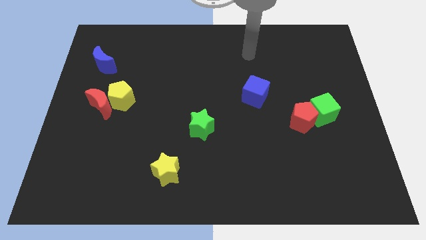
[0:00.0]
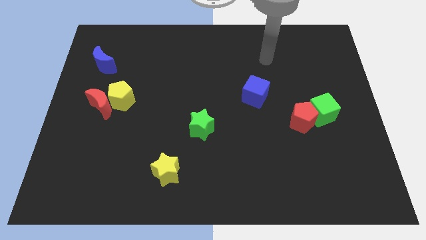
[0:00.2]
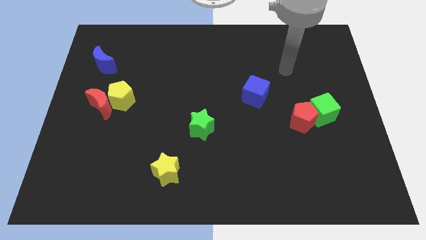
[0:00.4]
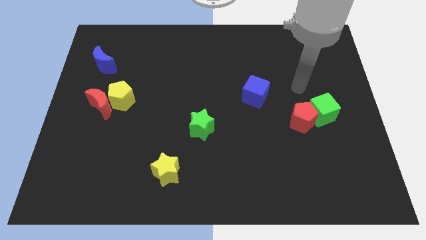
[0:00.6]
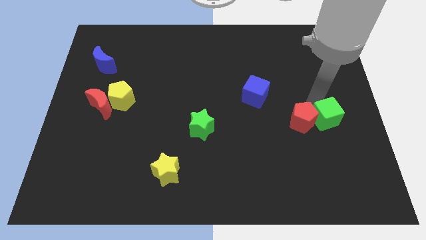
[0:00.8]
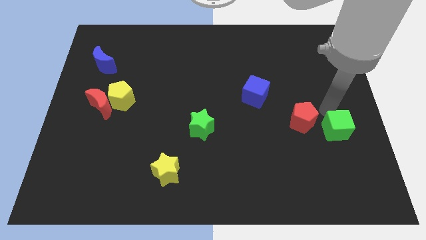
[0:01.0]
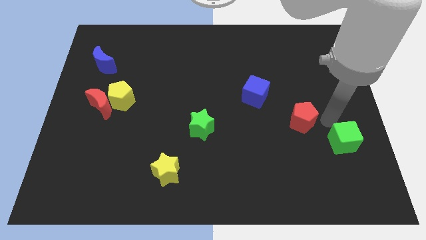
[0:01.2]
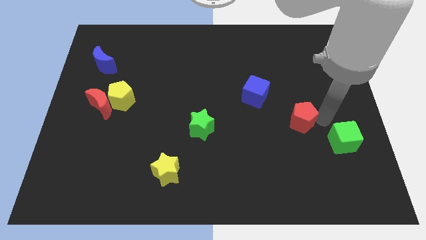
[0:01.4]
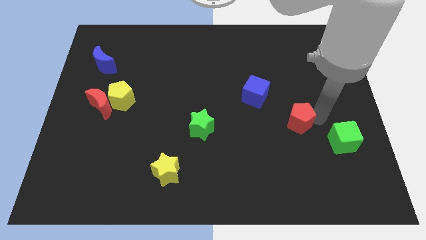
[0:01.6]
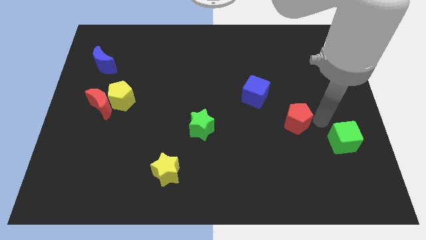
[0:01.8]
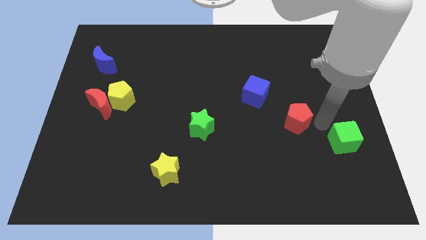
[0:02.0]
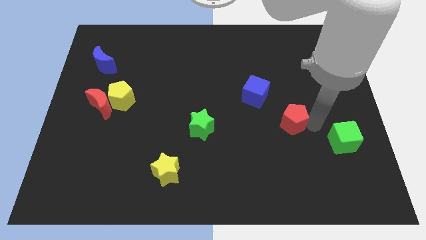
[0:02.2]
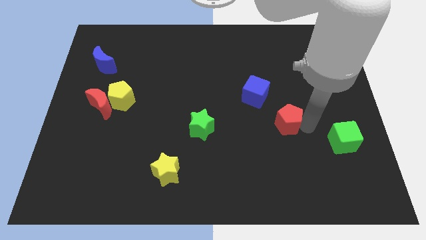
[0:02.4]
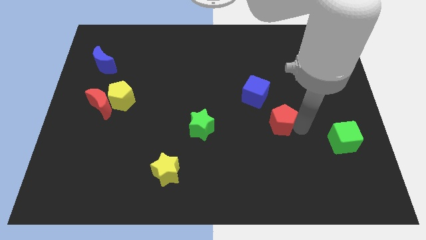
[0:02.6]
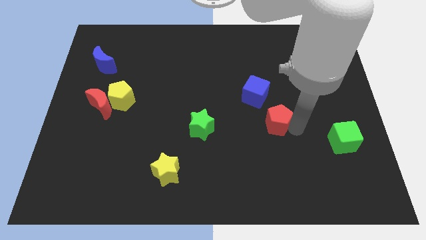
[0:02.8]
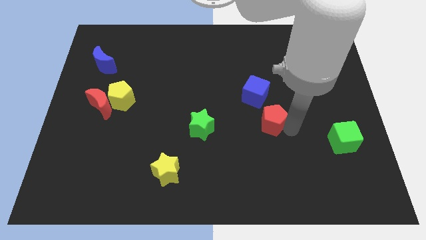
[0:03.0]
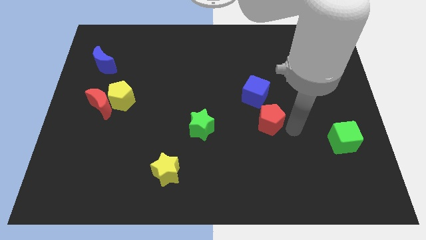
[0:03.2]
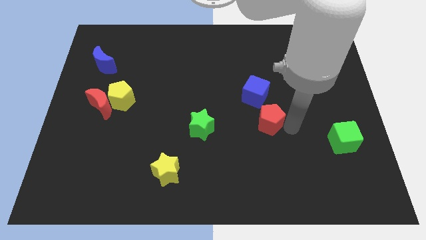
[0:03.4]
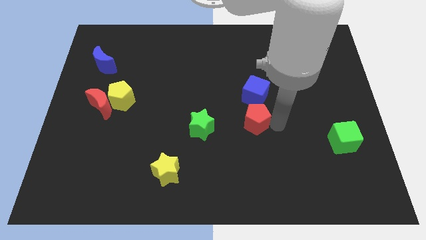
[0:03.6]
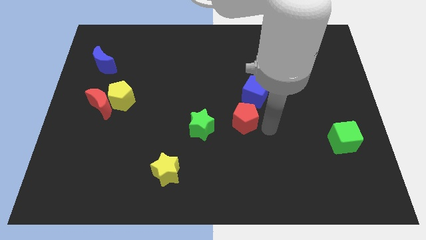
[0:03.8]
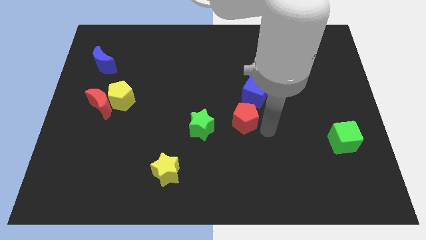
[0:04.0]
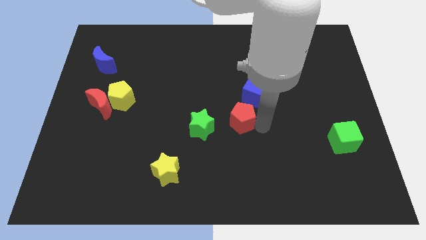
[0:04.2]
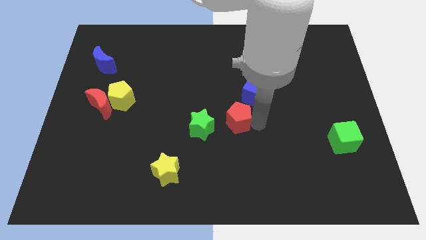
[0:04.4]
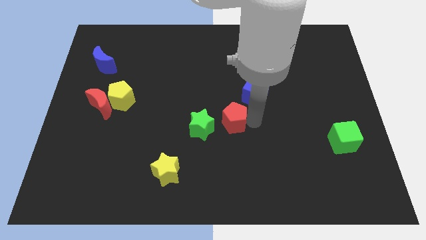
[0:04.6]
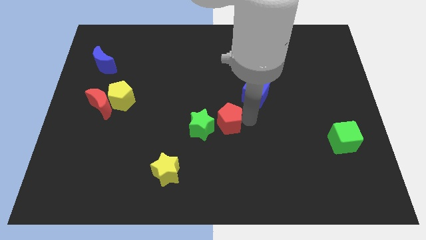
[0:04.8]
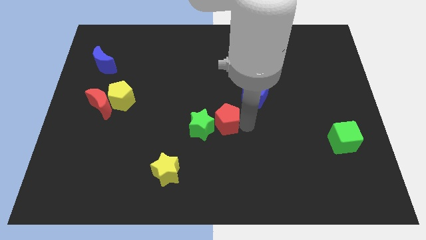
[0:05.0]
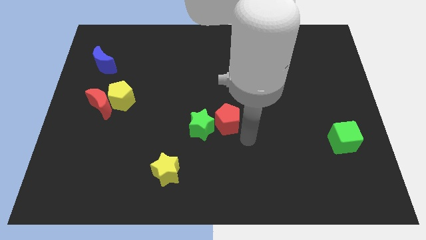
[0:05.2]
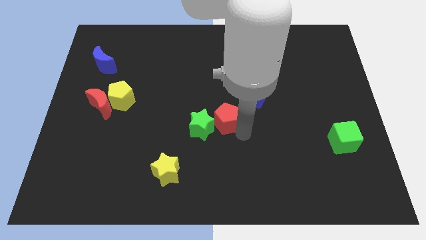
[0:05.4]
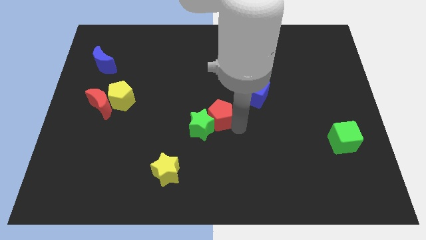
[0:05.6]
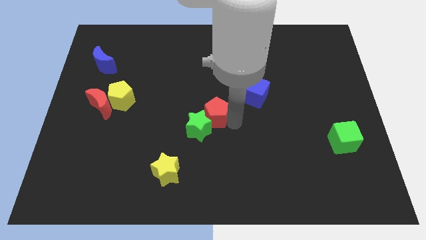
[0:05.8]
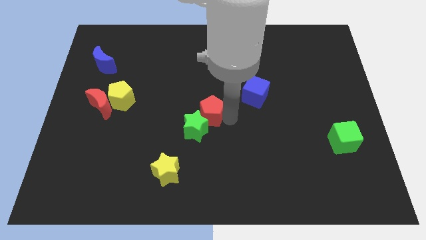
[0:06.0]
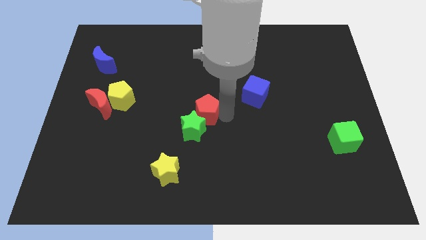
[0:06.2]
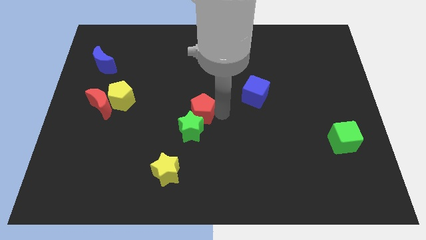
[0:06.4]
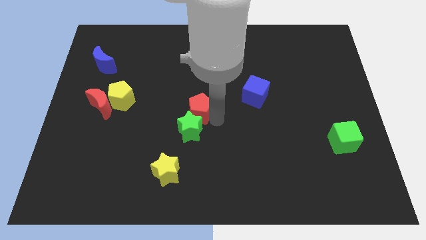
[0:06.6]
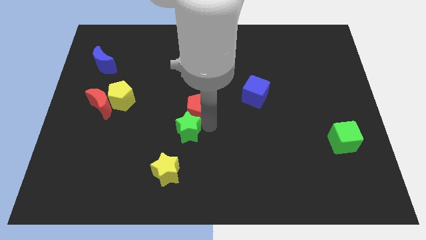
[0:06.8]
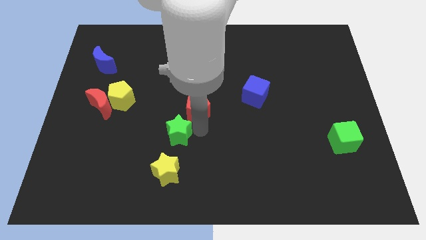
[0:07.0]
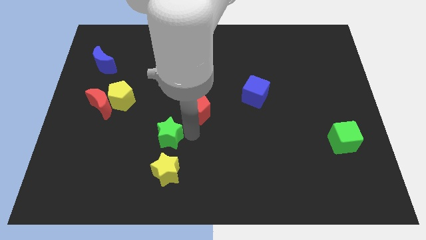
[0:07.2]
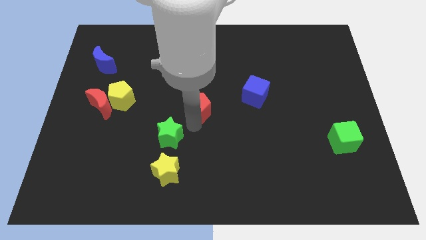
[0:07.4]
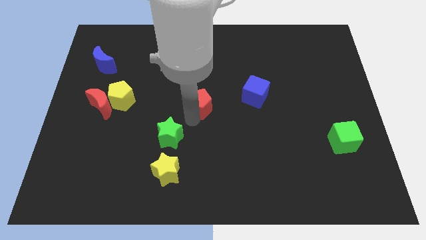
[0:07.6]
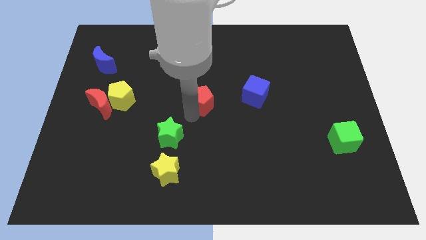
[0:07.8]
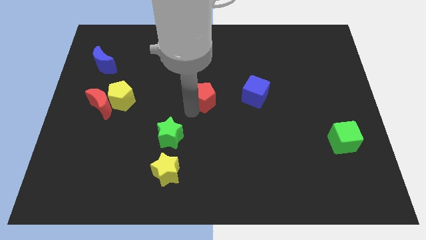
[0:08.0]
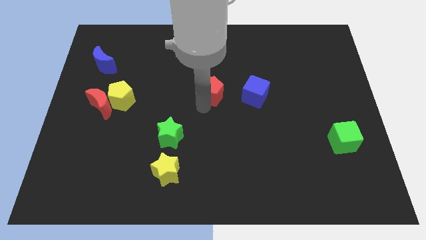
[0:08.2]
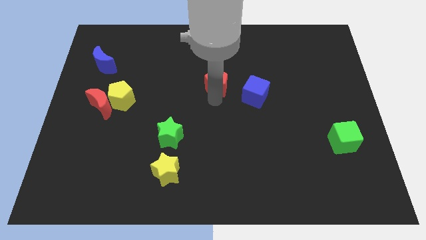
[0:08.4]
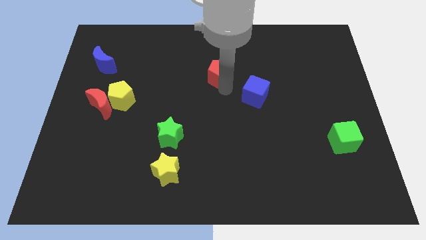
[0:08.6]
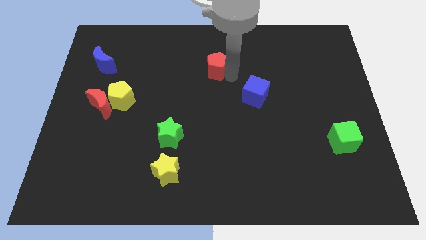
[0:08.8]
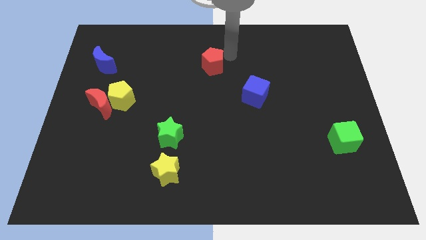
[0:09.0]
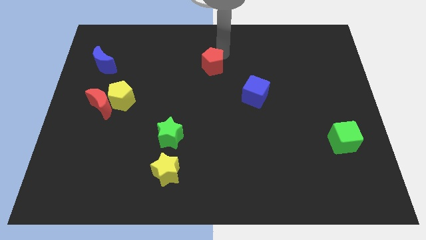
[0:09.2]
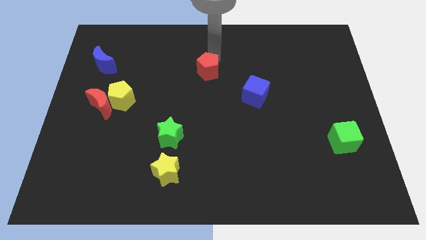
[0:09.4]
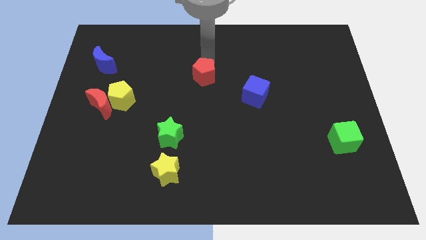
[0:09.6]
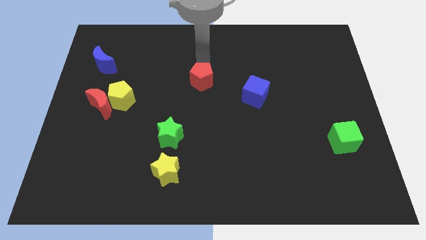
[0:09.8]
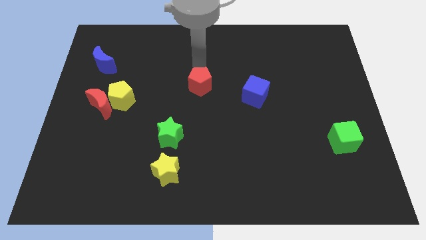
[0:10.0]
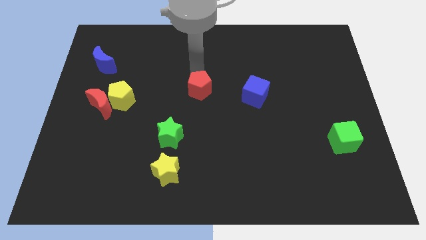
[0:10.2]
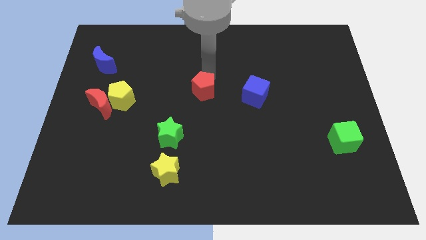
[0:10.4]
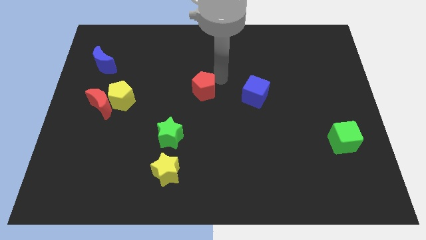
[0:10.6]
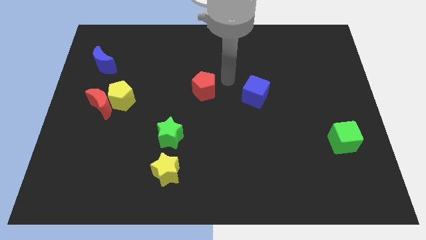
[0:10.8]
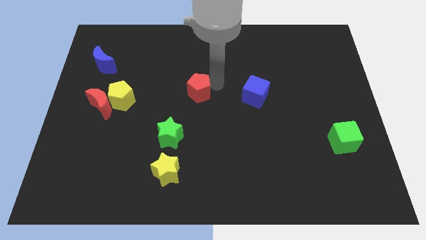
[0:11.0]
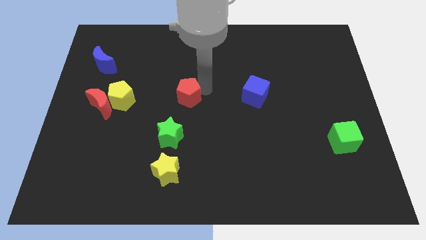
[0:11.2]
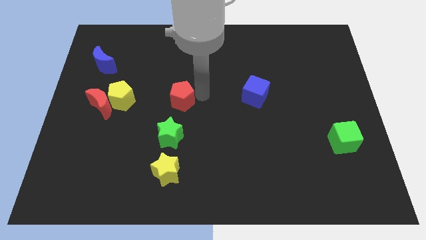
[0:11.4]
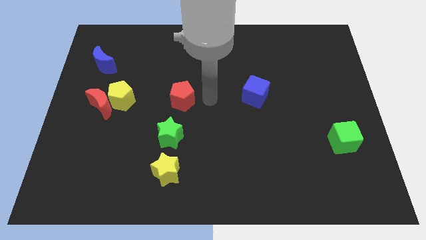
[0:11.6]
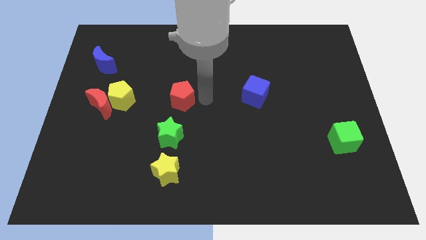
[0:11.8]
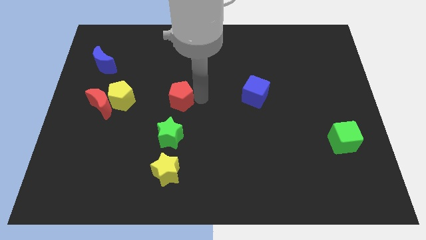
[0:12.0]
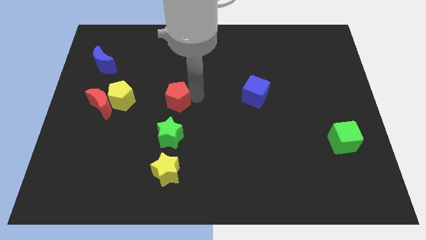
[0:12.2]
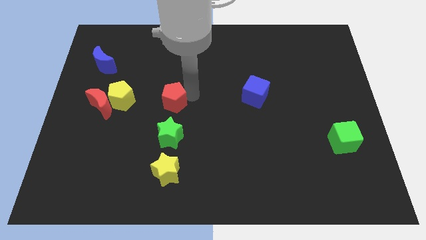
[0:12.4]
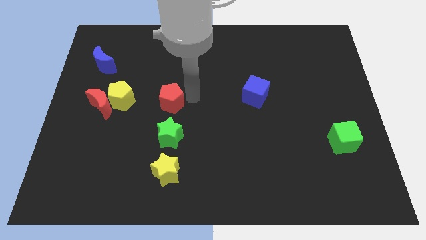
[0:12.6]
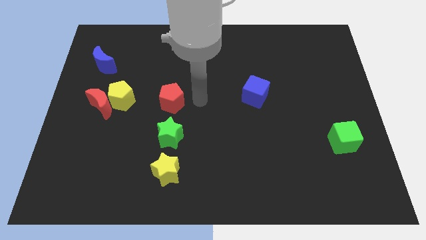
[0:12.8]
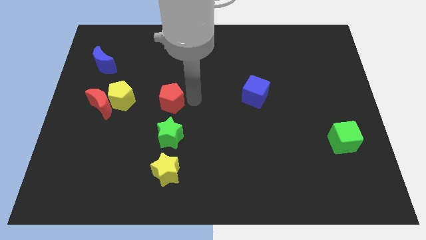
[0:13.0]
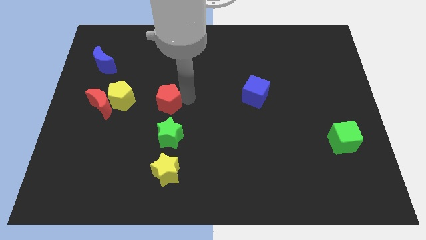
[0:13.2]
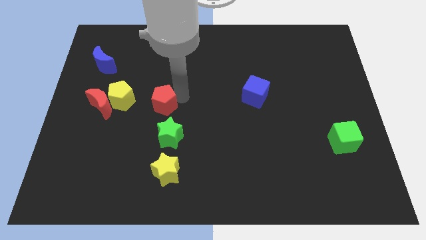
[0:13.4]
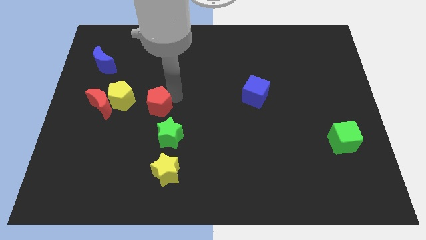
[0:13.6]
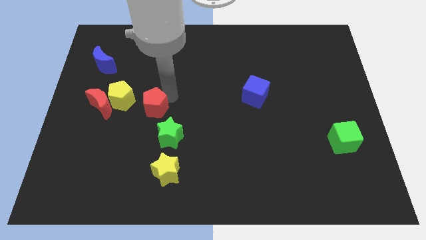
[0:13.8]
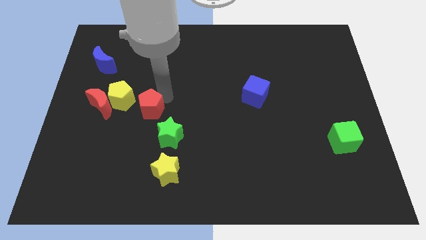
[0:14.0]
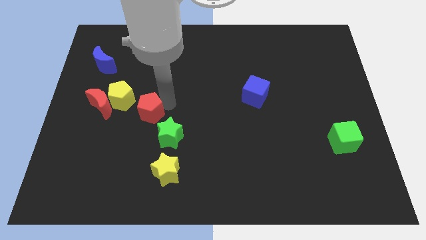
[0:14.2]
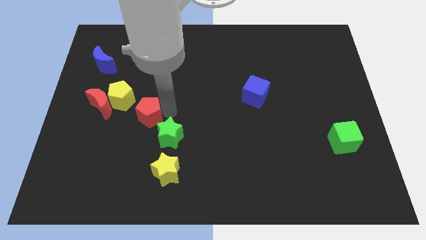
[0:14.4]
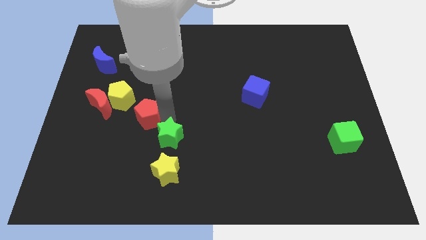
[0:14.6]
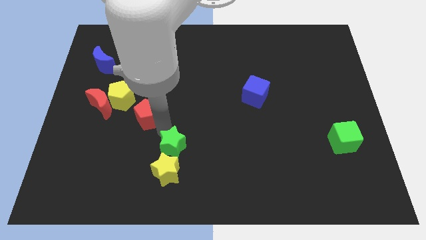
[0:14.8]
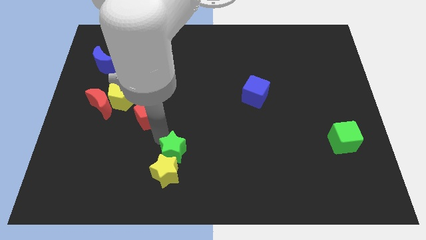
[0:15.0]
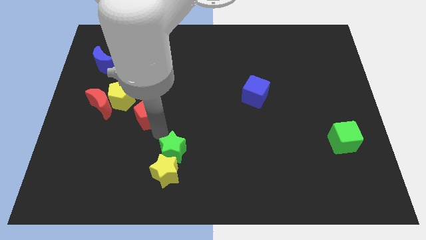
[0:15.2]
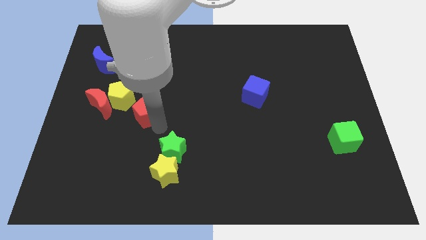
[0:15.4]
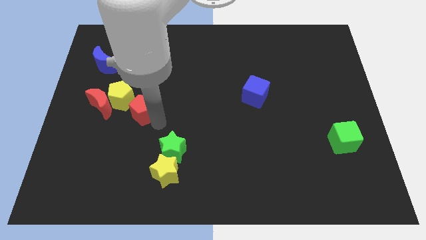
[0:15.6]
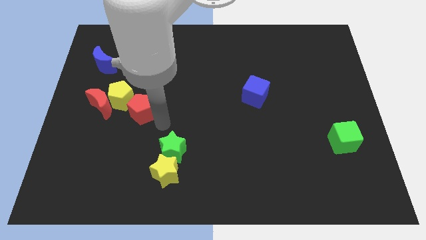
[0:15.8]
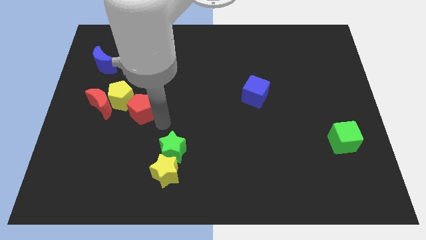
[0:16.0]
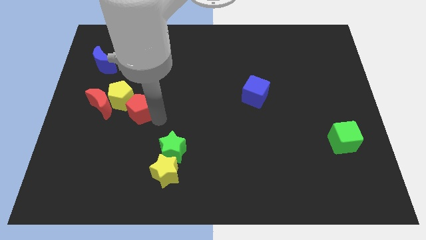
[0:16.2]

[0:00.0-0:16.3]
slide the red pentagon to the yellow pentagon
